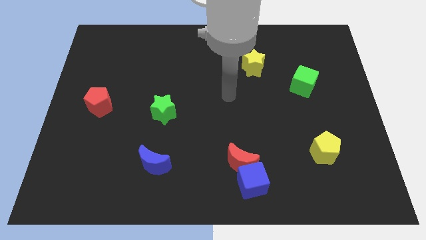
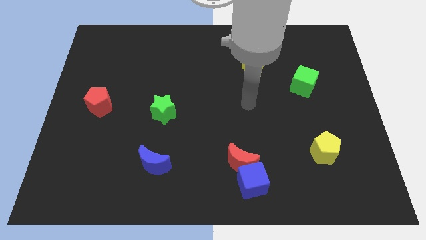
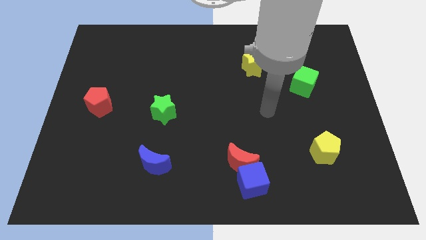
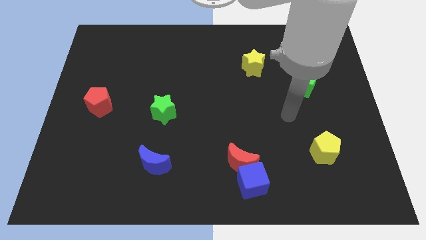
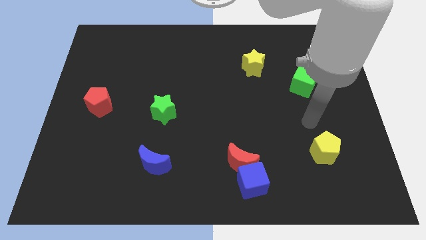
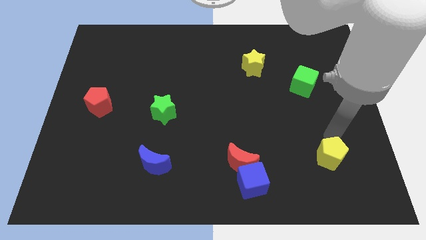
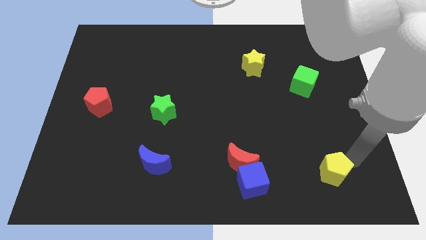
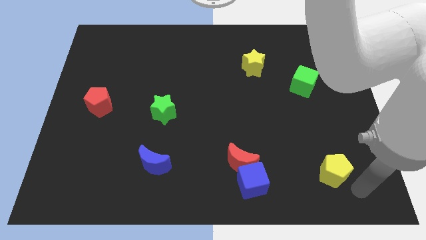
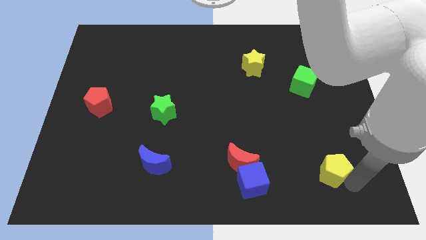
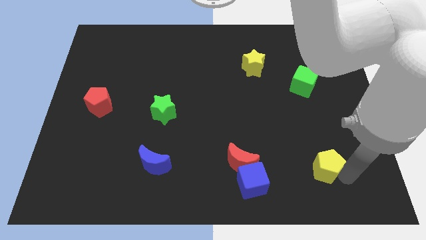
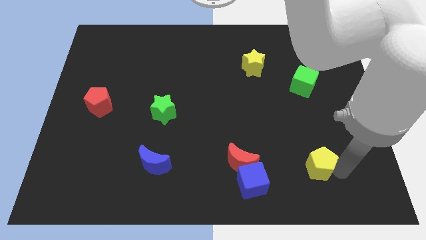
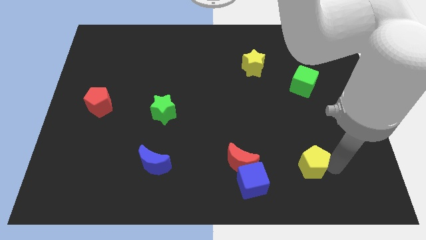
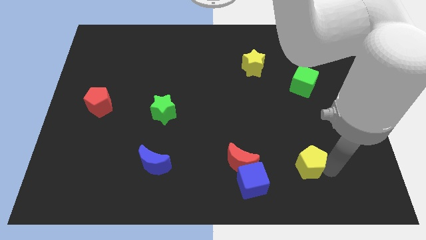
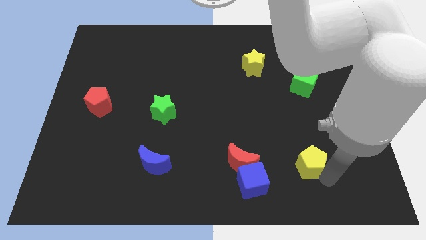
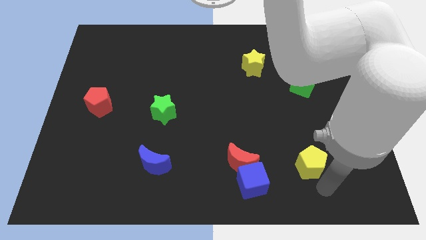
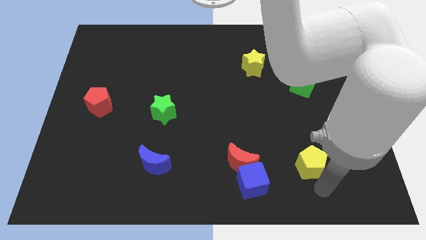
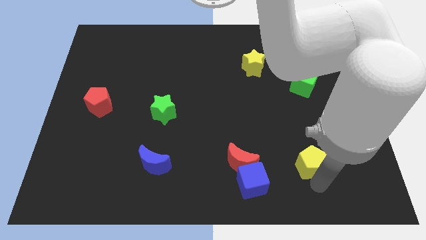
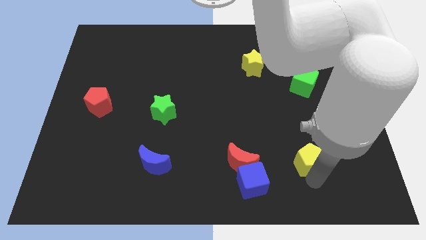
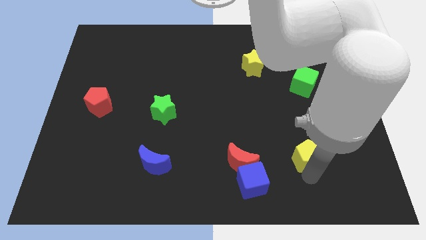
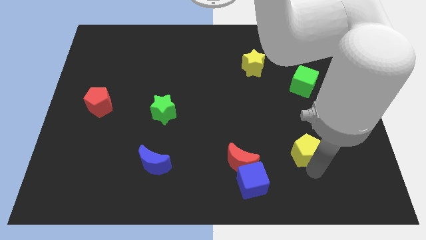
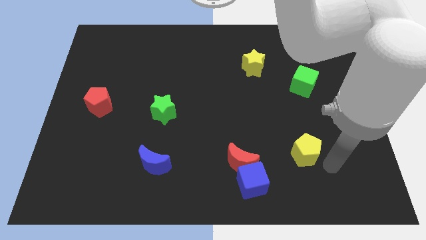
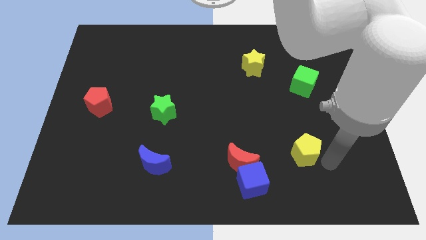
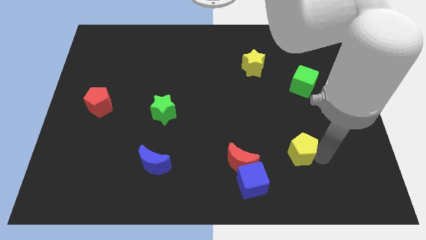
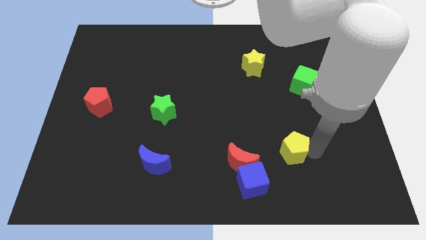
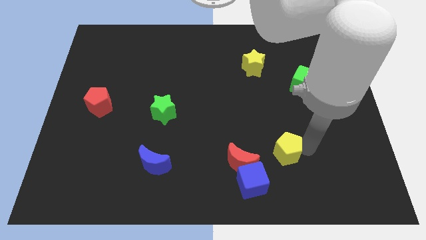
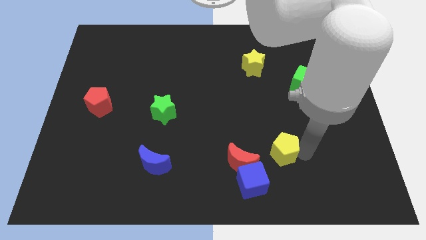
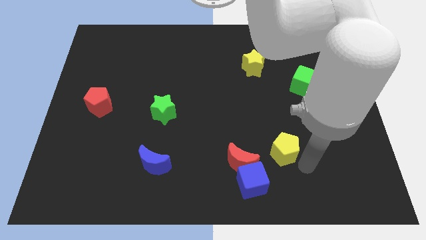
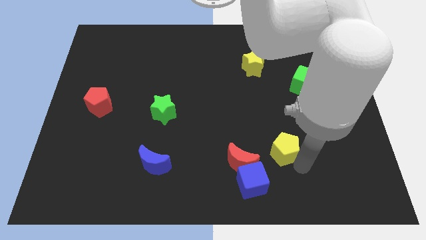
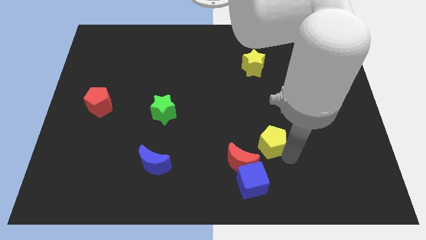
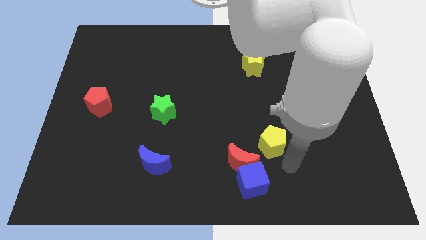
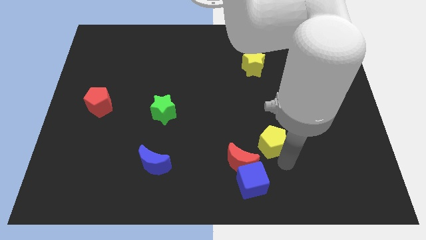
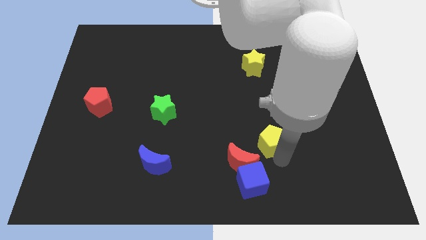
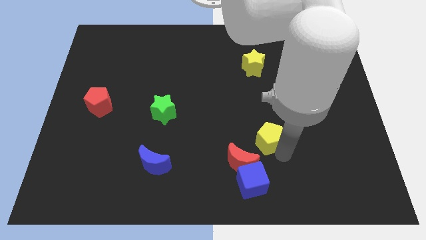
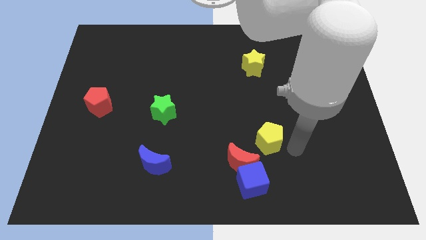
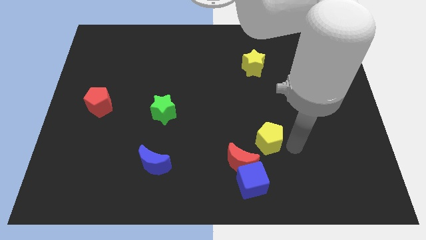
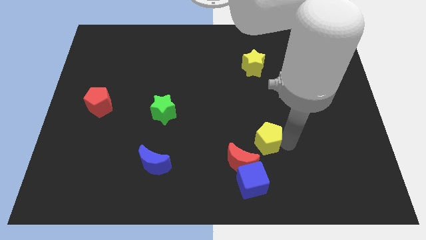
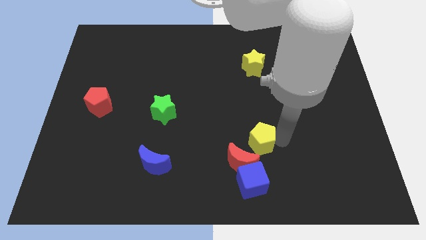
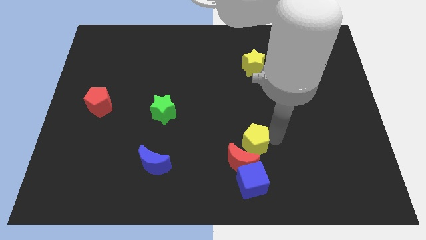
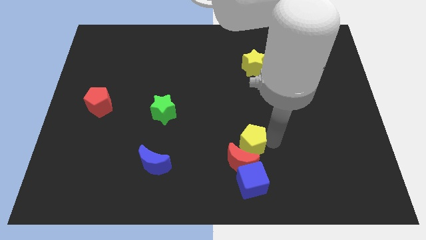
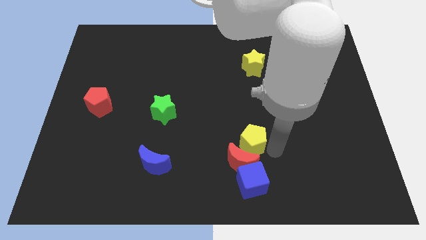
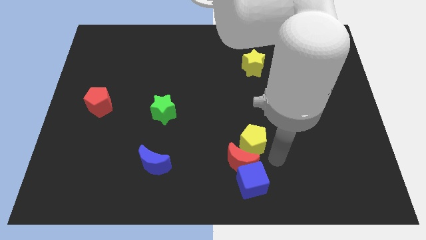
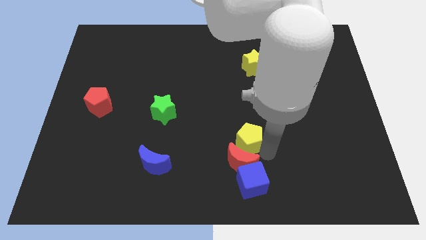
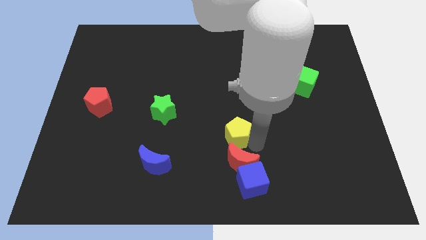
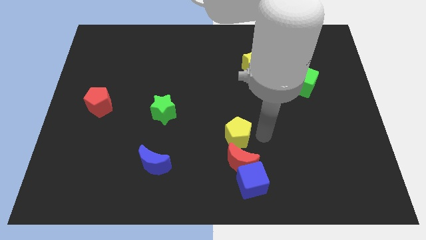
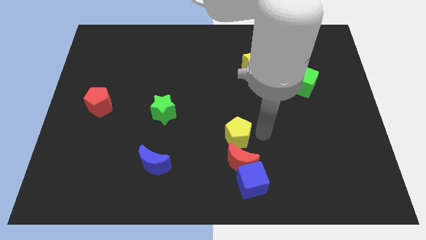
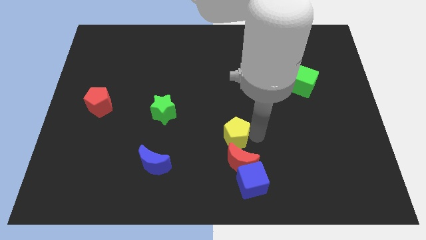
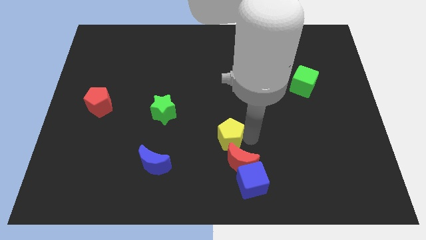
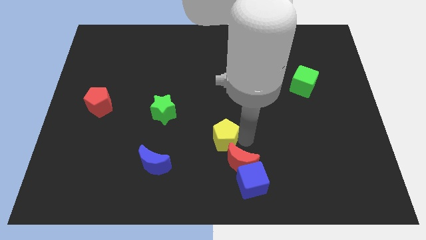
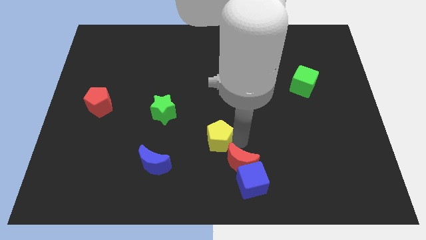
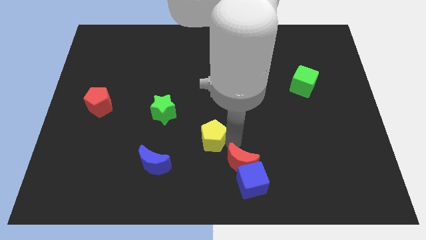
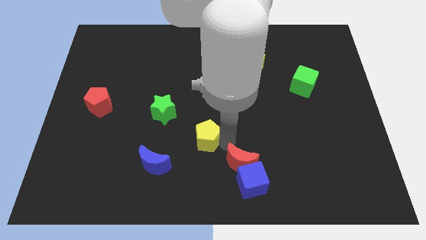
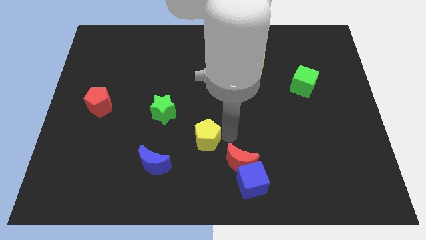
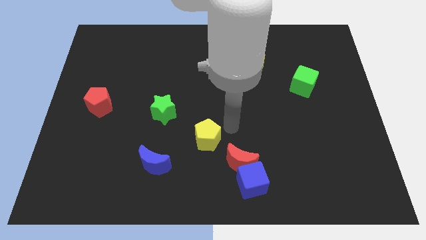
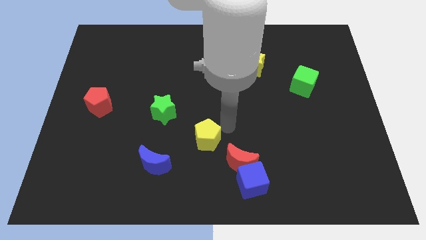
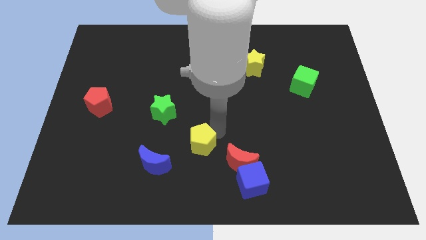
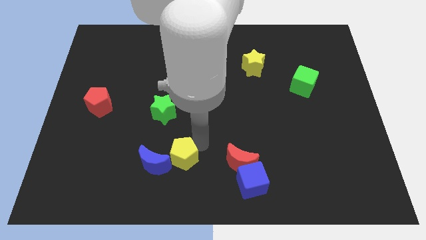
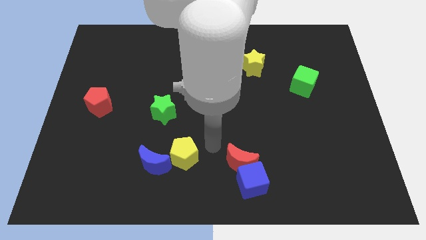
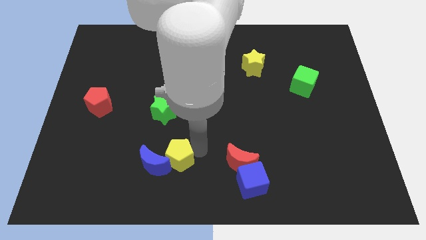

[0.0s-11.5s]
push the yellow pentagon to the blue moon
